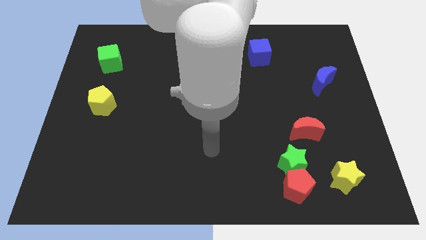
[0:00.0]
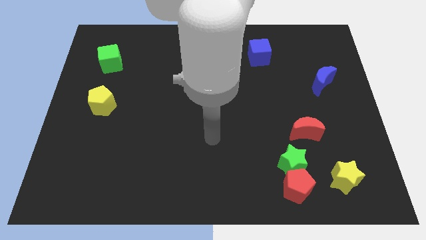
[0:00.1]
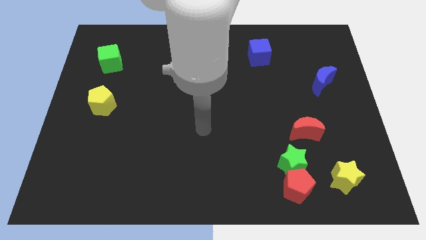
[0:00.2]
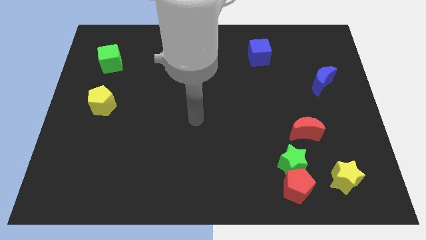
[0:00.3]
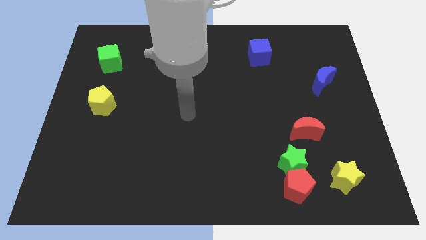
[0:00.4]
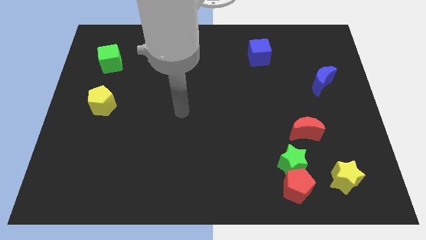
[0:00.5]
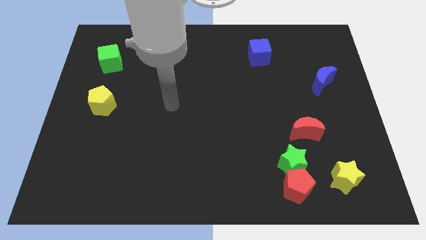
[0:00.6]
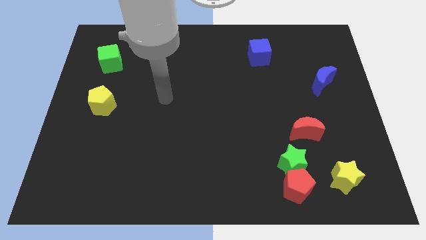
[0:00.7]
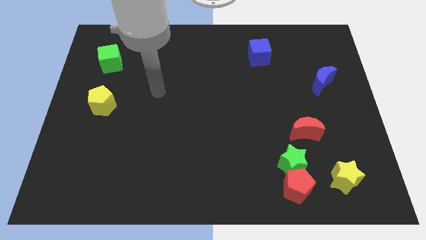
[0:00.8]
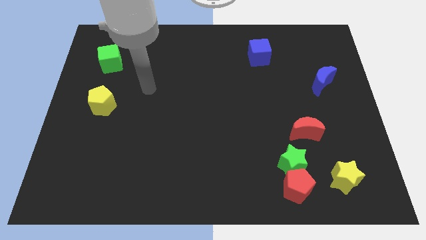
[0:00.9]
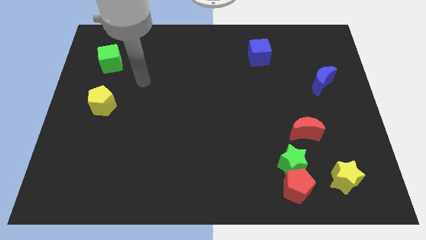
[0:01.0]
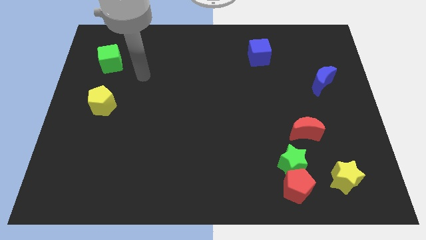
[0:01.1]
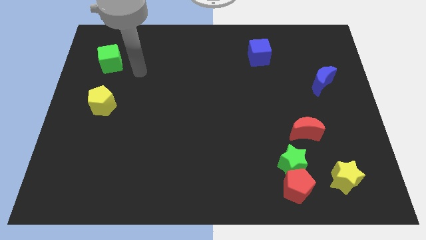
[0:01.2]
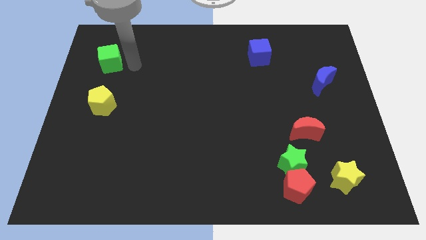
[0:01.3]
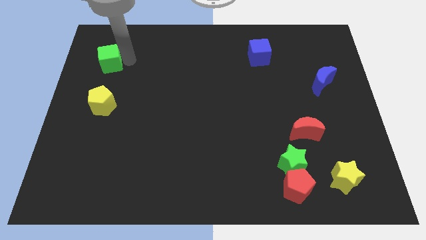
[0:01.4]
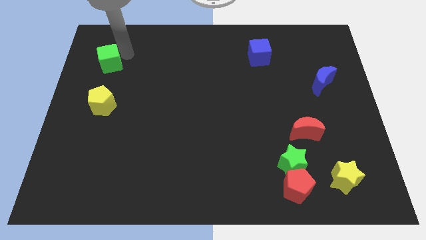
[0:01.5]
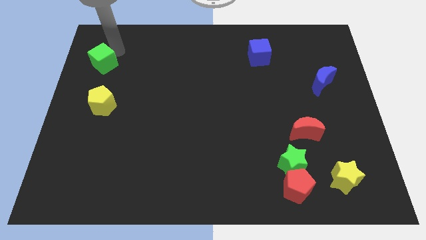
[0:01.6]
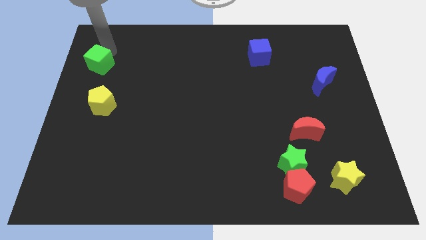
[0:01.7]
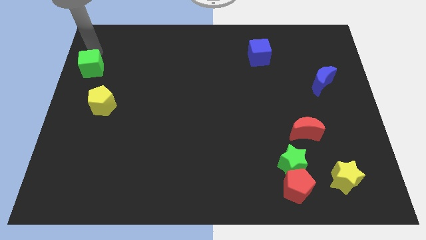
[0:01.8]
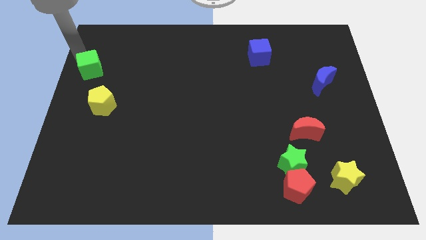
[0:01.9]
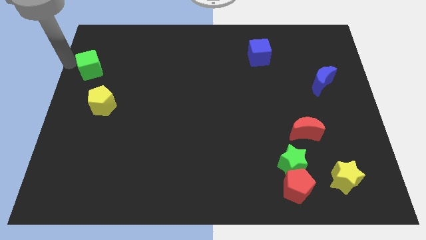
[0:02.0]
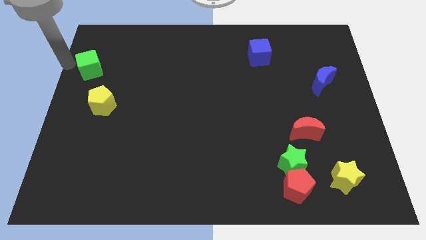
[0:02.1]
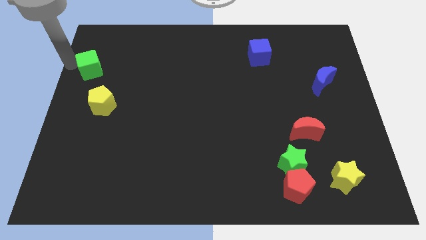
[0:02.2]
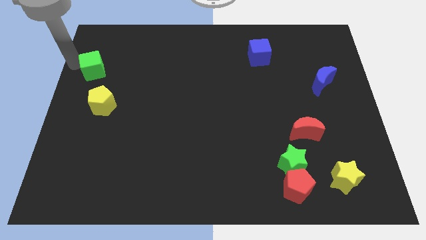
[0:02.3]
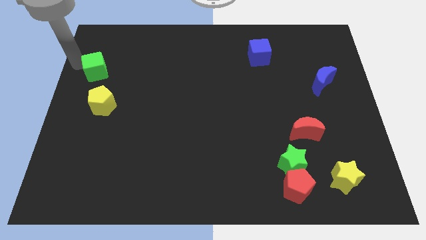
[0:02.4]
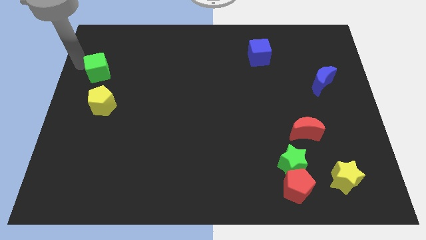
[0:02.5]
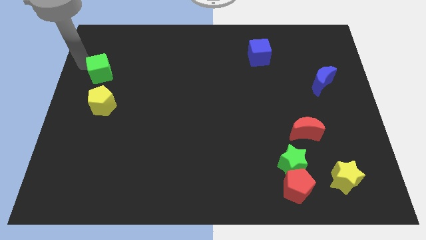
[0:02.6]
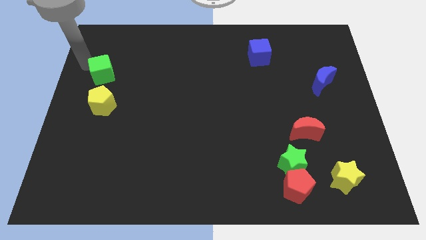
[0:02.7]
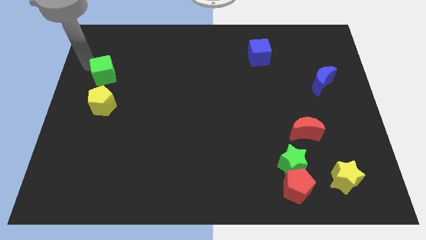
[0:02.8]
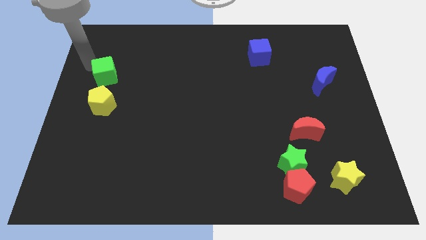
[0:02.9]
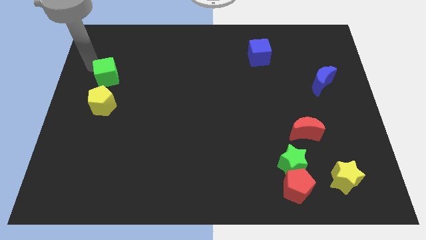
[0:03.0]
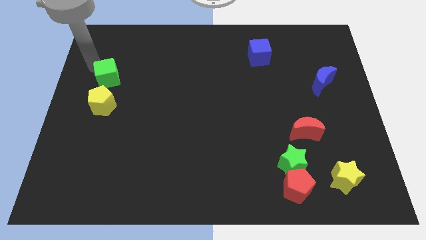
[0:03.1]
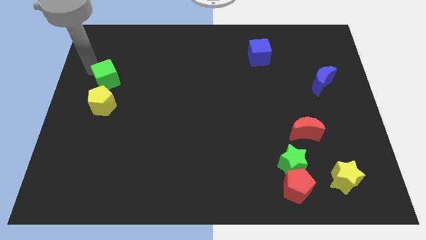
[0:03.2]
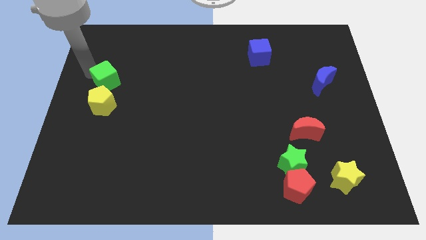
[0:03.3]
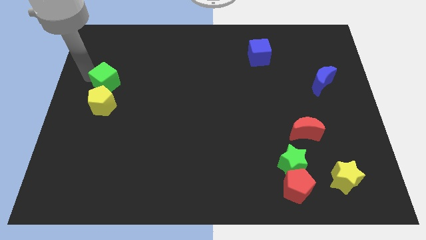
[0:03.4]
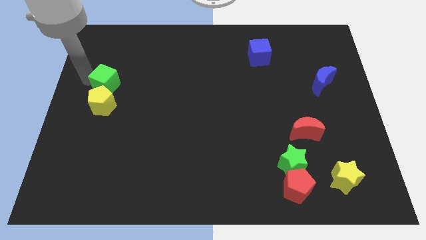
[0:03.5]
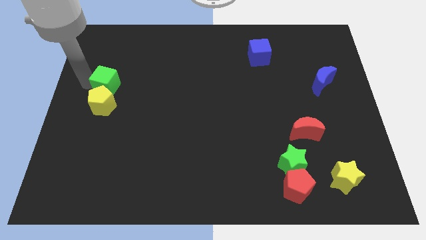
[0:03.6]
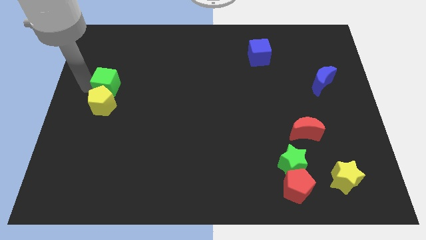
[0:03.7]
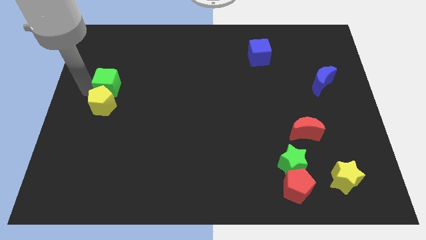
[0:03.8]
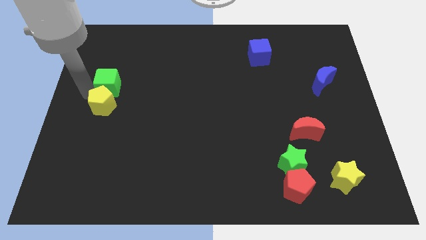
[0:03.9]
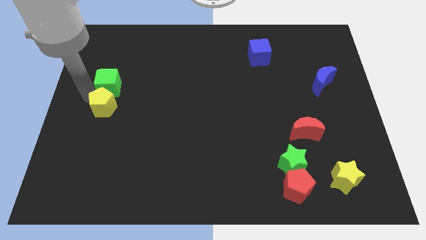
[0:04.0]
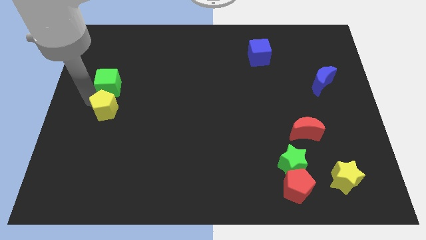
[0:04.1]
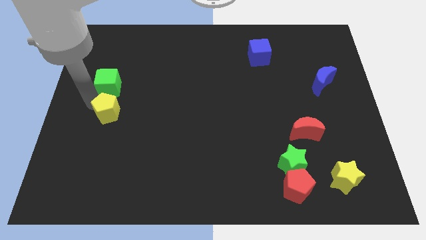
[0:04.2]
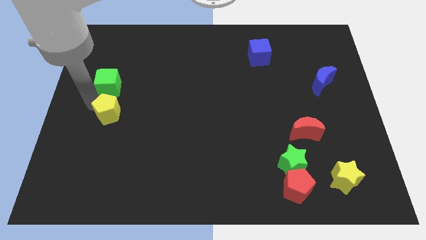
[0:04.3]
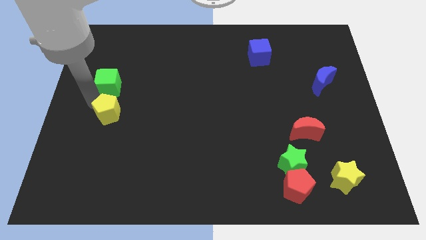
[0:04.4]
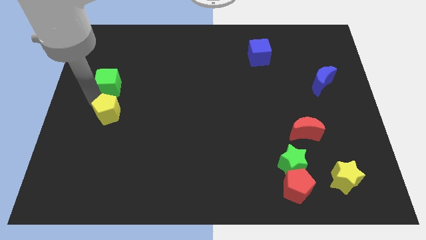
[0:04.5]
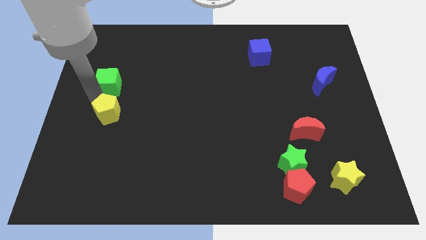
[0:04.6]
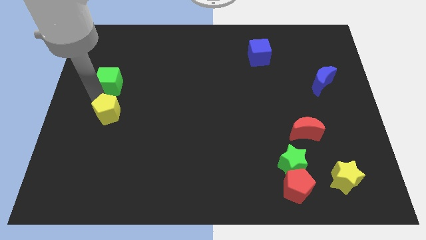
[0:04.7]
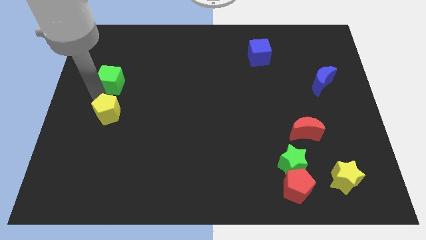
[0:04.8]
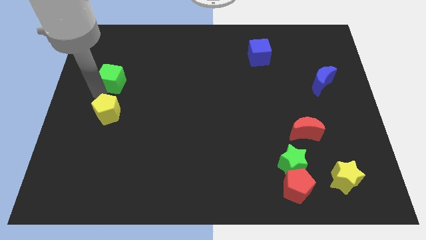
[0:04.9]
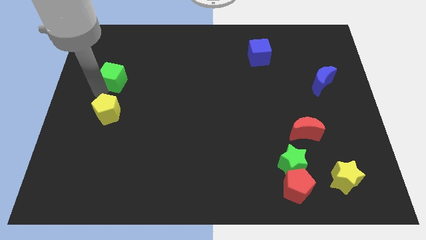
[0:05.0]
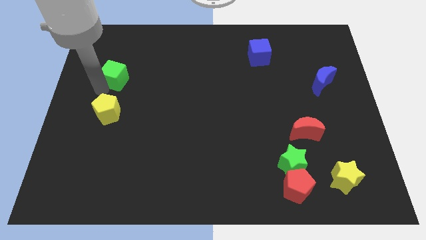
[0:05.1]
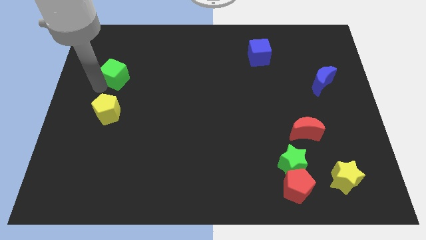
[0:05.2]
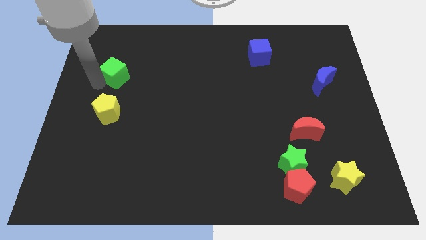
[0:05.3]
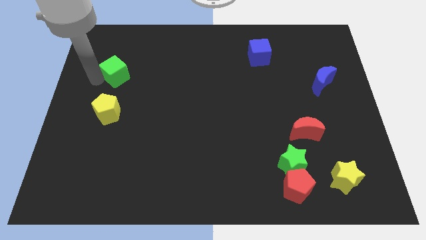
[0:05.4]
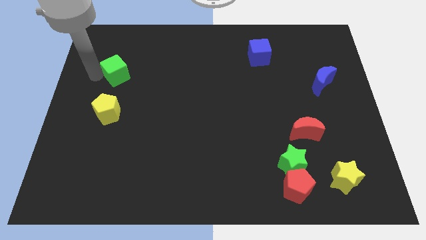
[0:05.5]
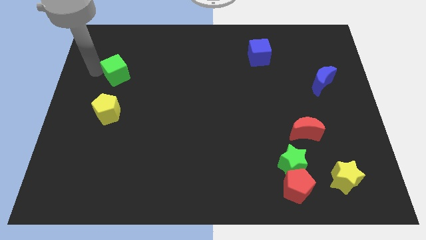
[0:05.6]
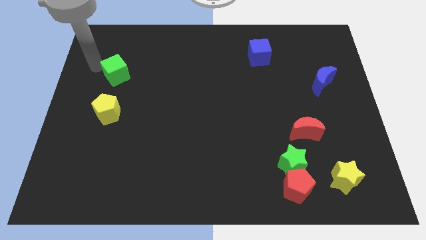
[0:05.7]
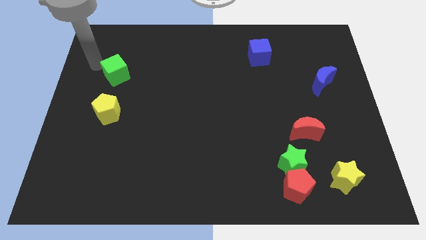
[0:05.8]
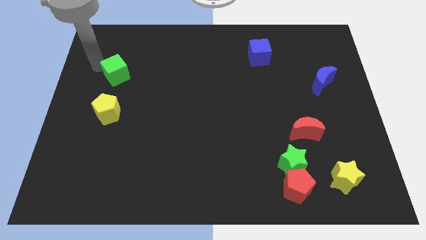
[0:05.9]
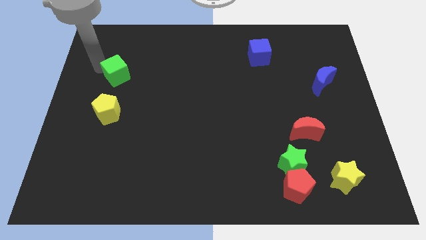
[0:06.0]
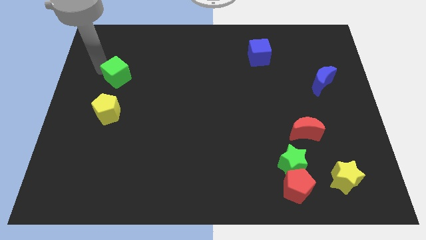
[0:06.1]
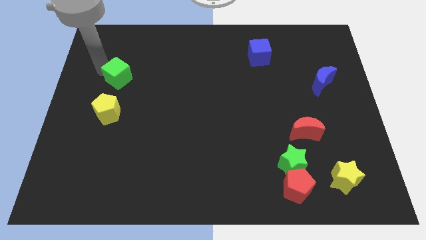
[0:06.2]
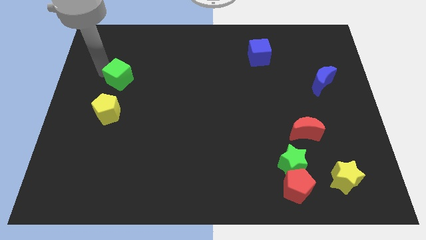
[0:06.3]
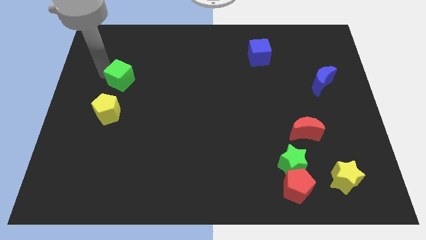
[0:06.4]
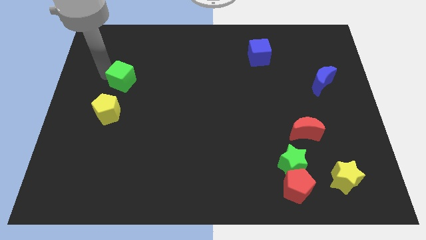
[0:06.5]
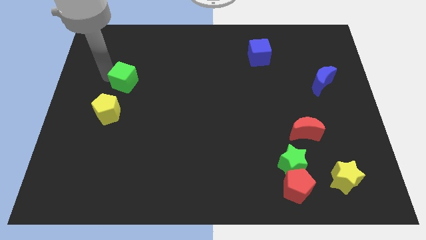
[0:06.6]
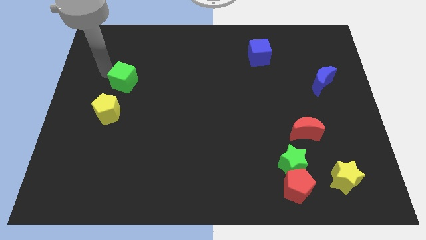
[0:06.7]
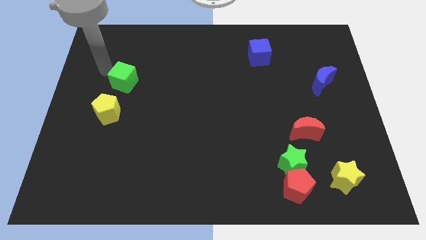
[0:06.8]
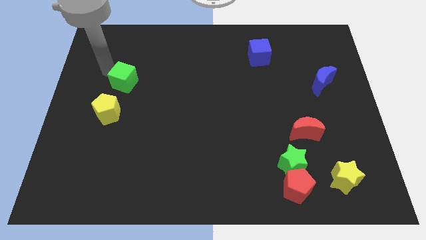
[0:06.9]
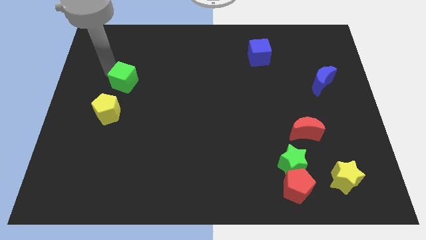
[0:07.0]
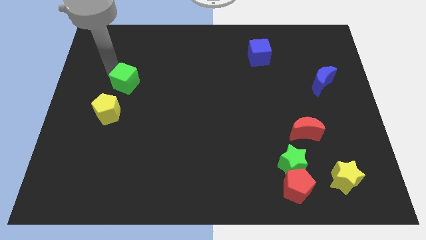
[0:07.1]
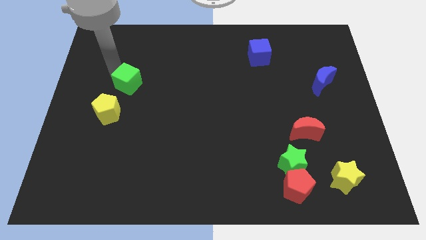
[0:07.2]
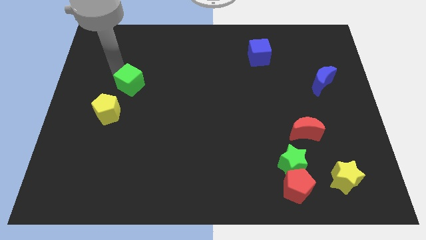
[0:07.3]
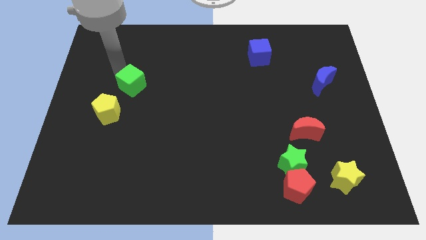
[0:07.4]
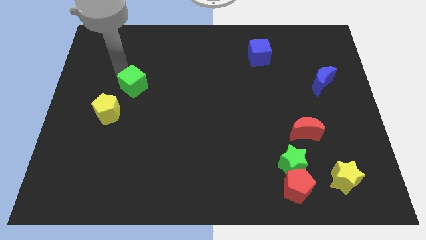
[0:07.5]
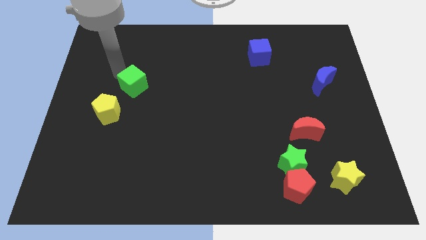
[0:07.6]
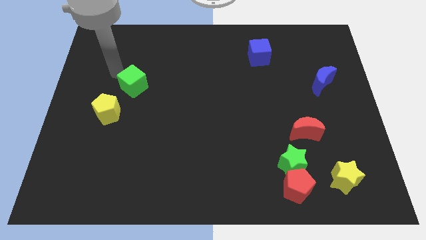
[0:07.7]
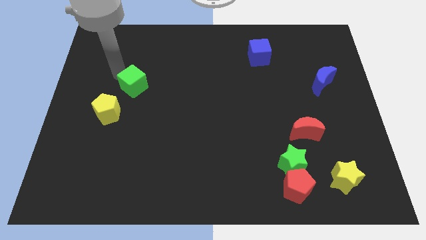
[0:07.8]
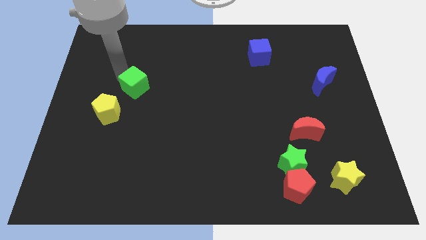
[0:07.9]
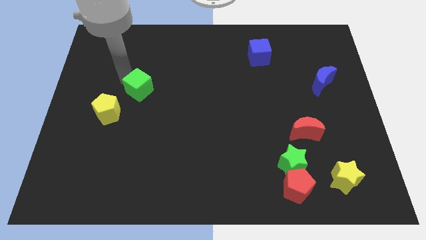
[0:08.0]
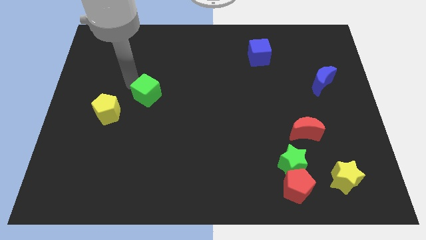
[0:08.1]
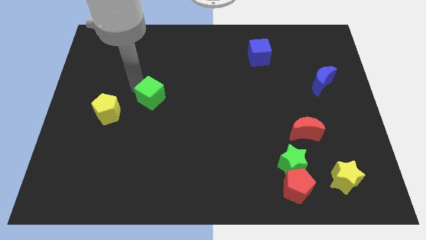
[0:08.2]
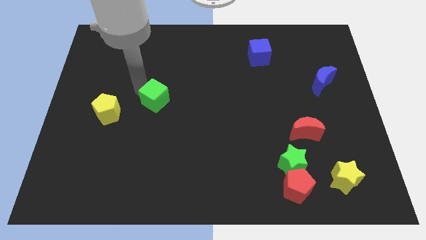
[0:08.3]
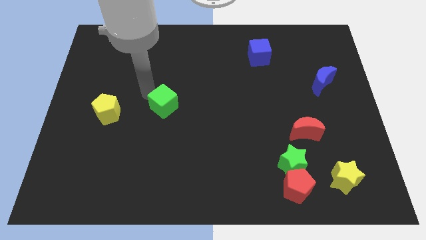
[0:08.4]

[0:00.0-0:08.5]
push the green cube diagonally down and right
